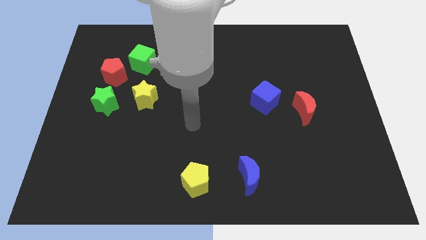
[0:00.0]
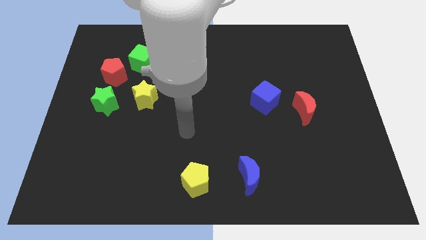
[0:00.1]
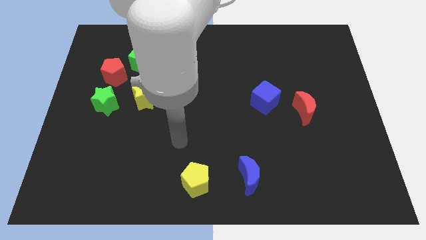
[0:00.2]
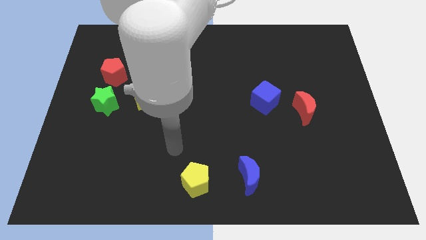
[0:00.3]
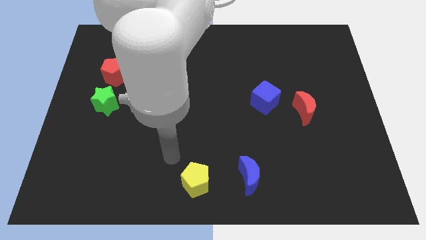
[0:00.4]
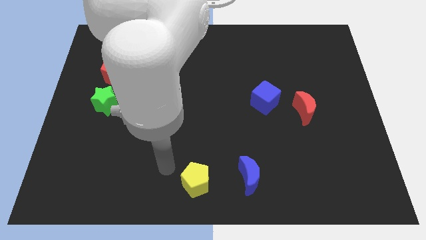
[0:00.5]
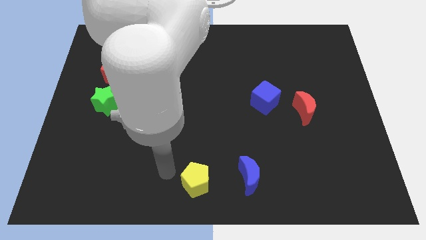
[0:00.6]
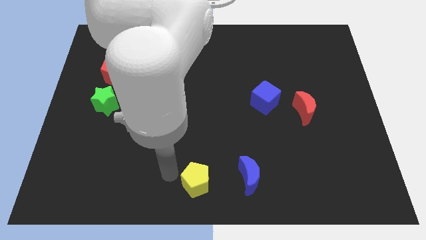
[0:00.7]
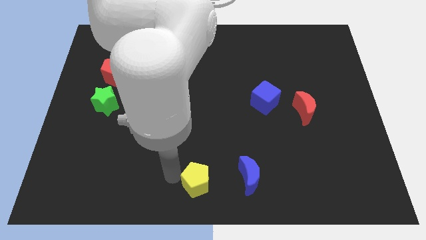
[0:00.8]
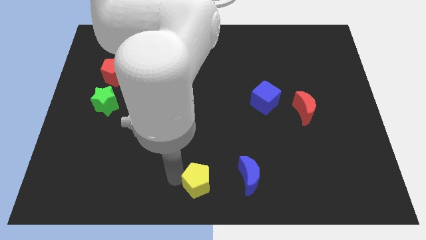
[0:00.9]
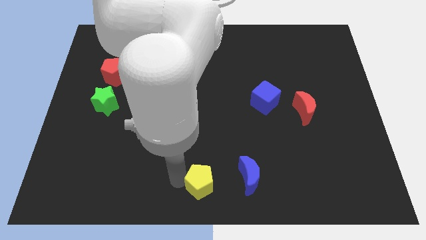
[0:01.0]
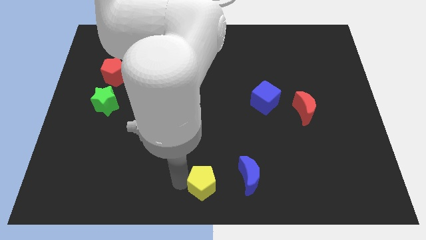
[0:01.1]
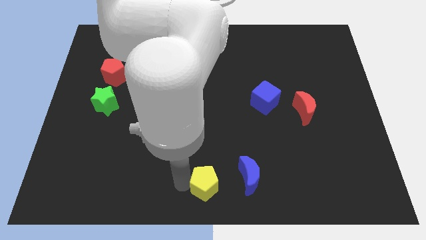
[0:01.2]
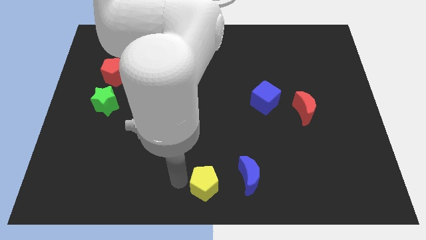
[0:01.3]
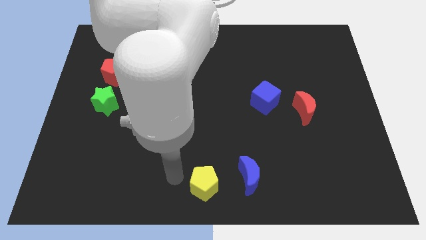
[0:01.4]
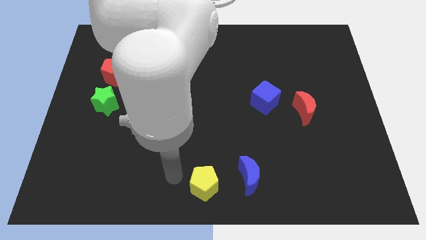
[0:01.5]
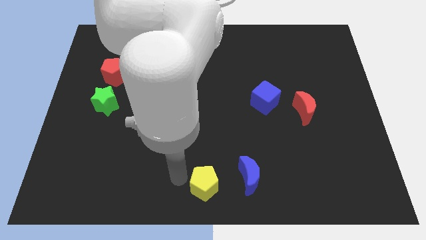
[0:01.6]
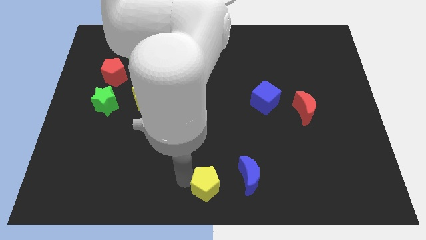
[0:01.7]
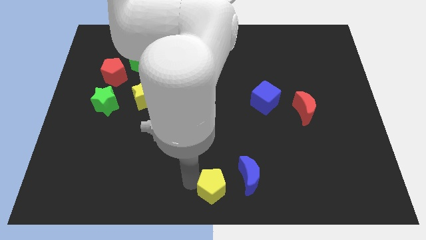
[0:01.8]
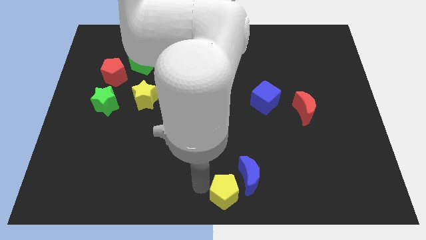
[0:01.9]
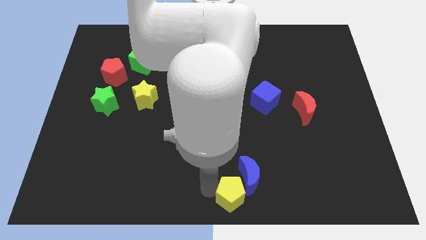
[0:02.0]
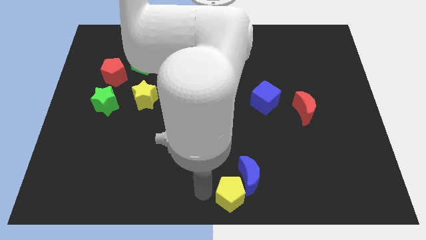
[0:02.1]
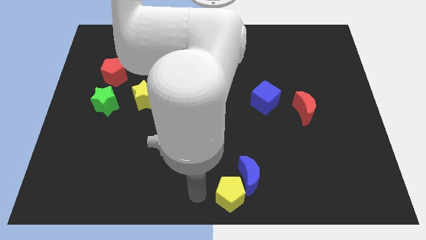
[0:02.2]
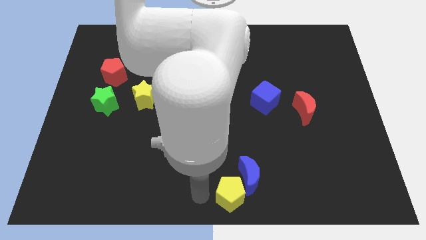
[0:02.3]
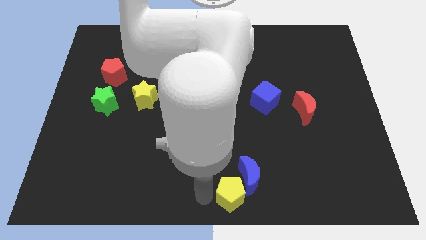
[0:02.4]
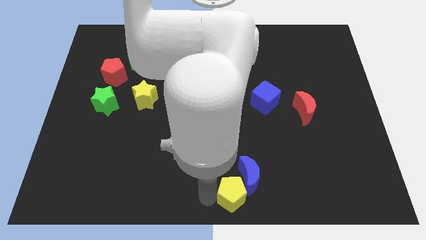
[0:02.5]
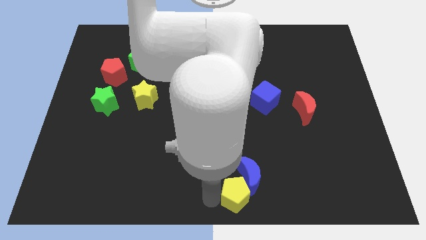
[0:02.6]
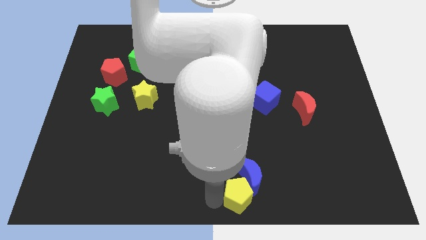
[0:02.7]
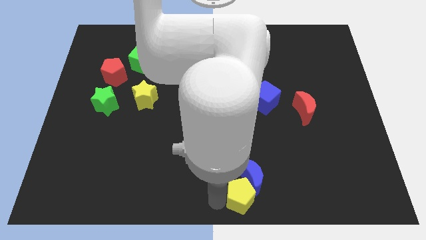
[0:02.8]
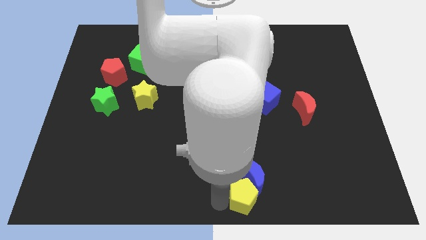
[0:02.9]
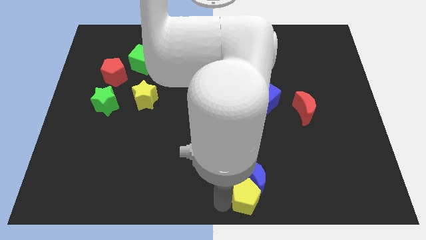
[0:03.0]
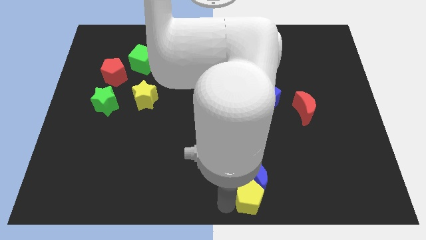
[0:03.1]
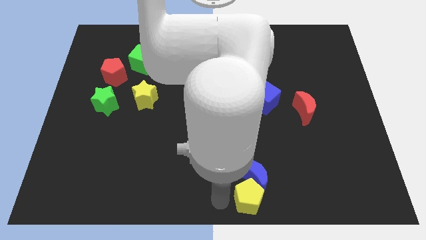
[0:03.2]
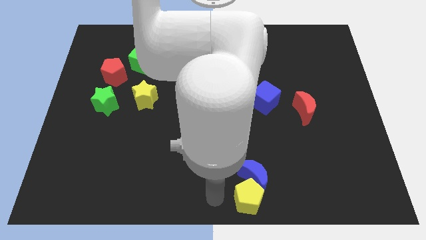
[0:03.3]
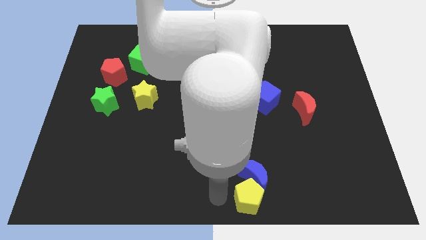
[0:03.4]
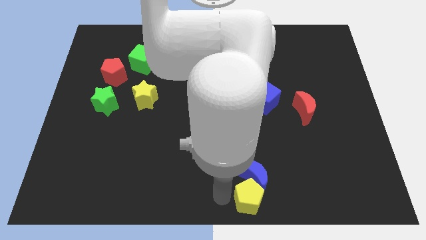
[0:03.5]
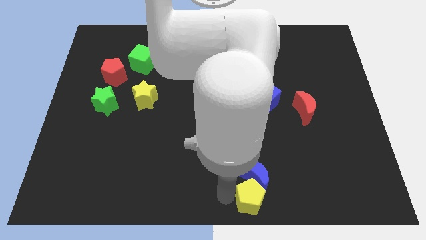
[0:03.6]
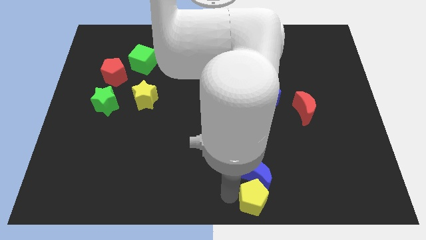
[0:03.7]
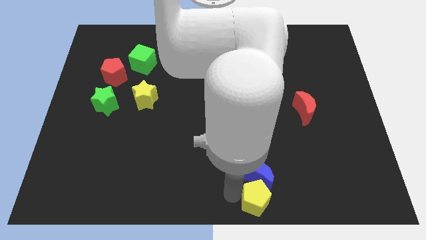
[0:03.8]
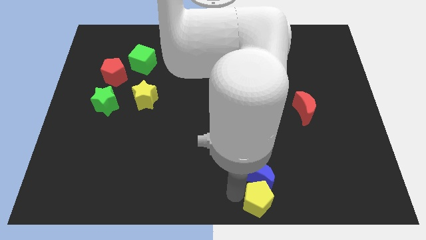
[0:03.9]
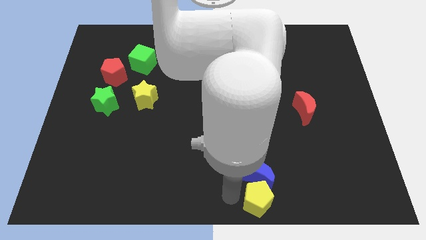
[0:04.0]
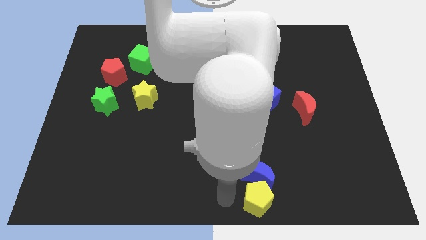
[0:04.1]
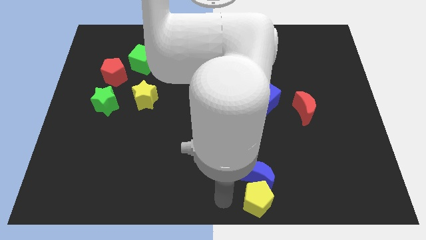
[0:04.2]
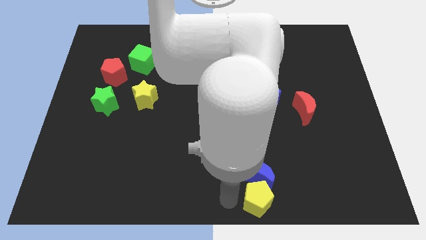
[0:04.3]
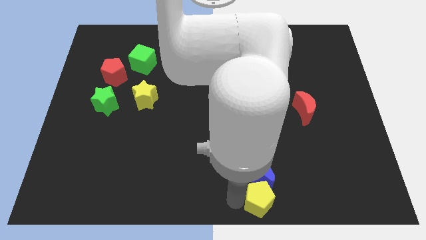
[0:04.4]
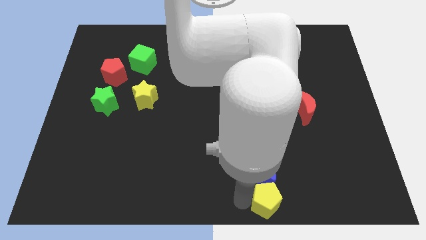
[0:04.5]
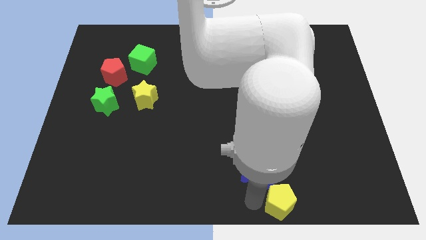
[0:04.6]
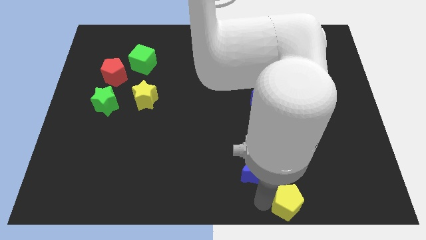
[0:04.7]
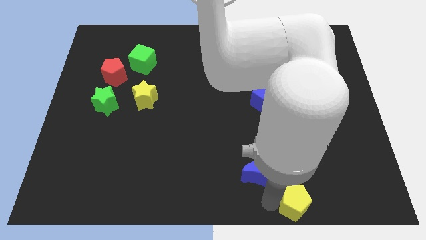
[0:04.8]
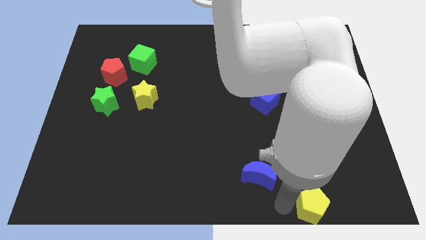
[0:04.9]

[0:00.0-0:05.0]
move the yellow pentagon right

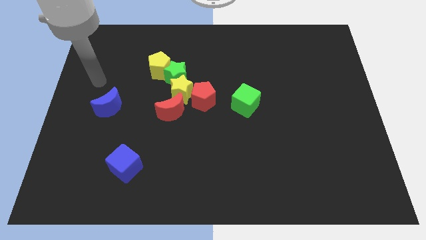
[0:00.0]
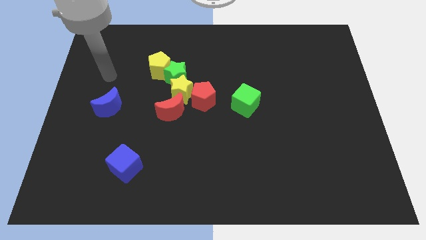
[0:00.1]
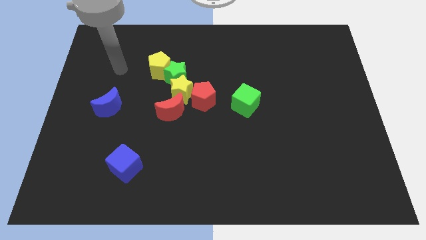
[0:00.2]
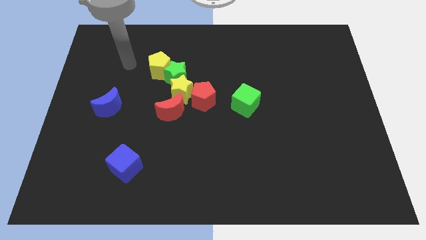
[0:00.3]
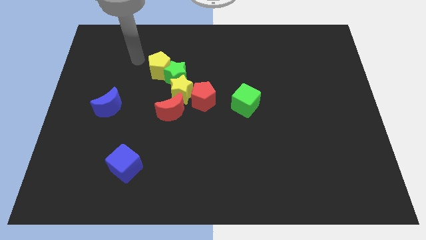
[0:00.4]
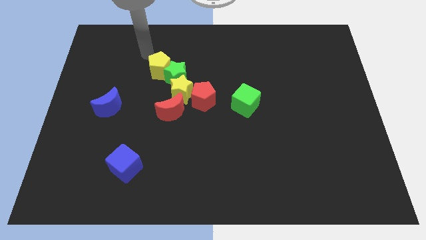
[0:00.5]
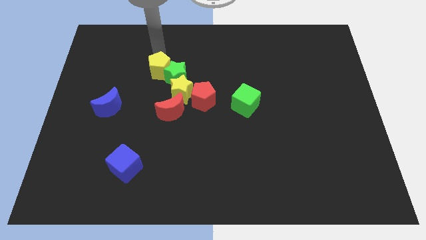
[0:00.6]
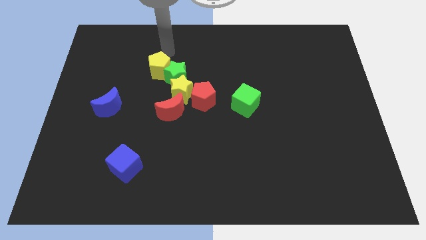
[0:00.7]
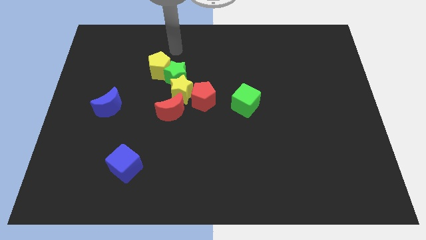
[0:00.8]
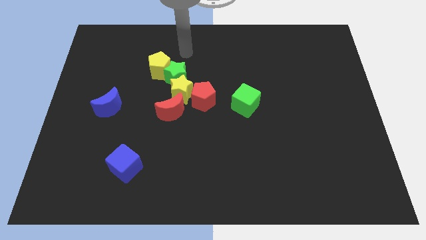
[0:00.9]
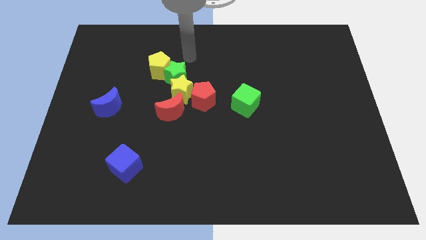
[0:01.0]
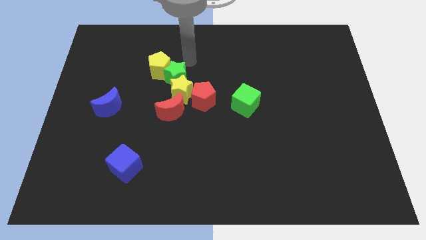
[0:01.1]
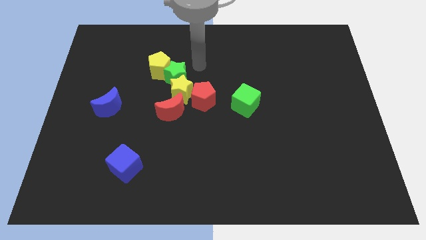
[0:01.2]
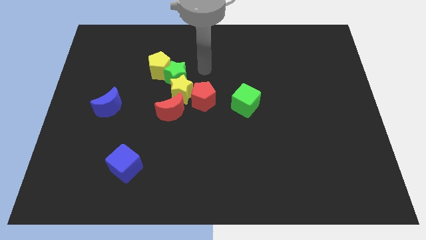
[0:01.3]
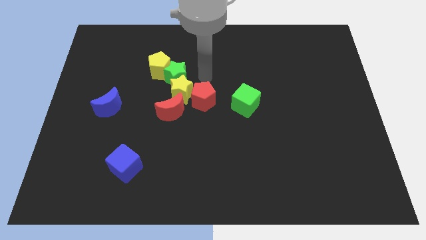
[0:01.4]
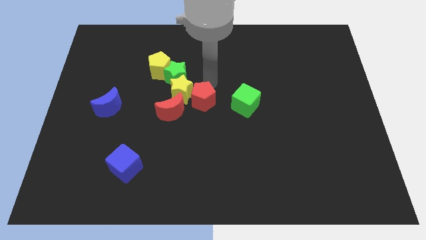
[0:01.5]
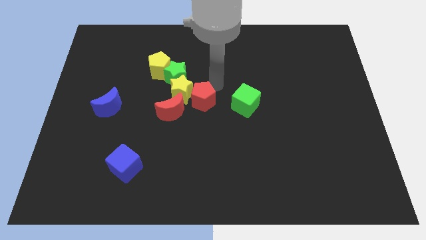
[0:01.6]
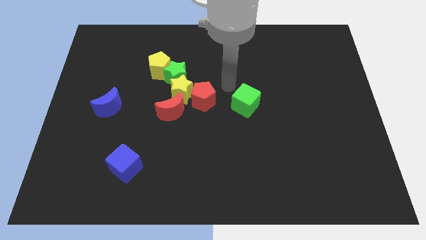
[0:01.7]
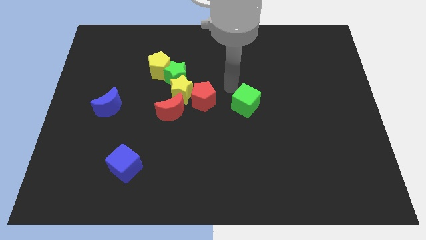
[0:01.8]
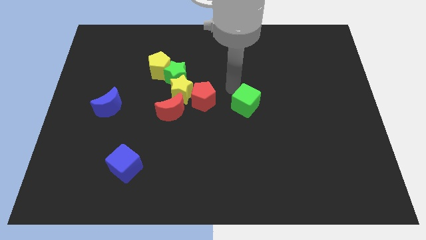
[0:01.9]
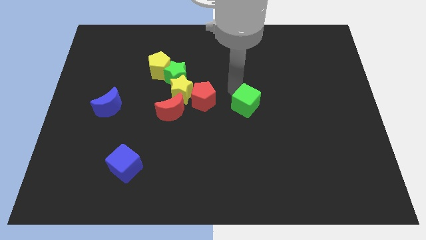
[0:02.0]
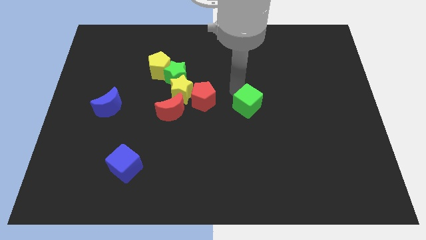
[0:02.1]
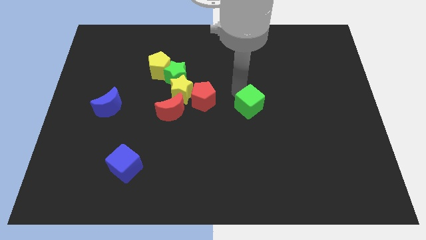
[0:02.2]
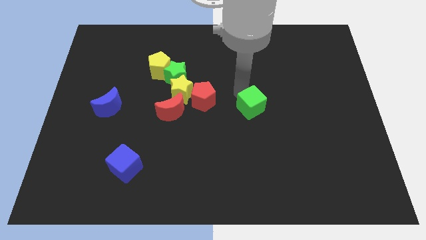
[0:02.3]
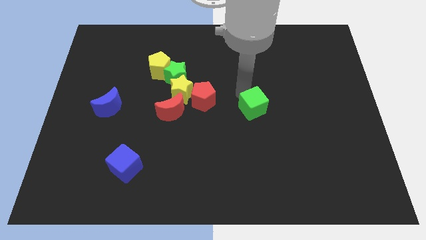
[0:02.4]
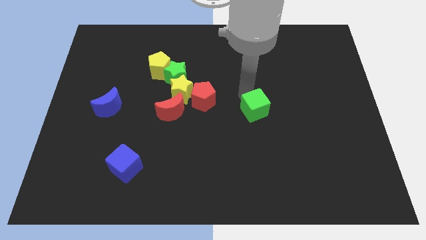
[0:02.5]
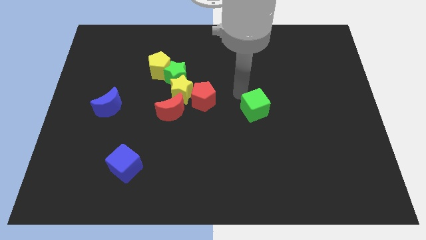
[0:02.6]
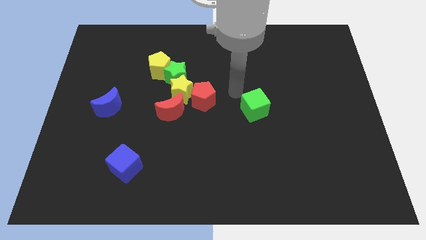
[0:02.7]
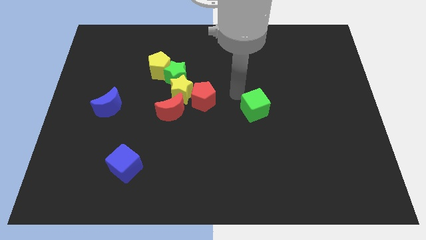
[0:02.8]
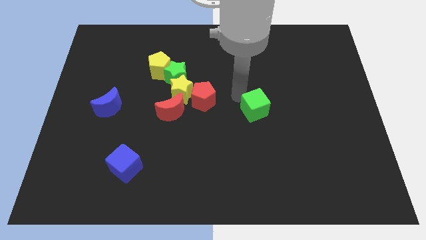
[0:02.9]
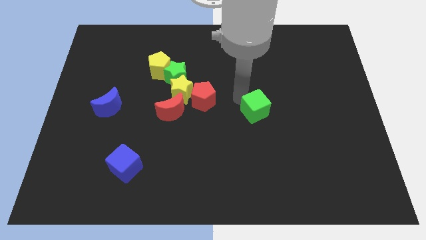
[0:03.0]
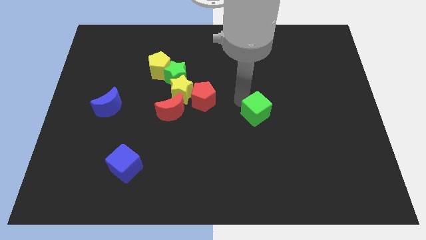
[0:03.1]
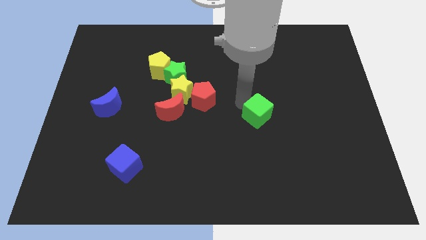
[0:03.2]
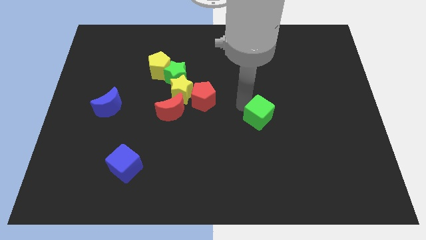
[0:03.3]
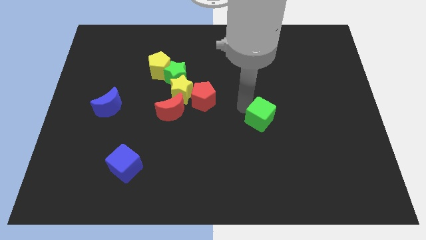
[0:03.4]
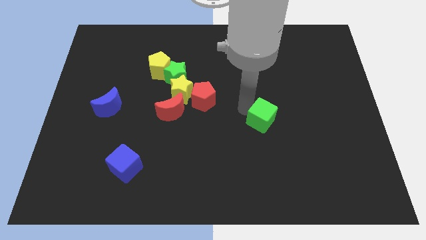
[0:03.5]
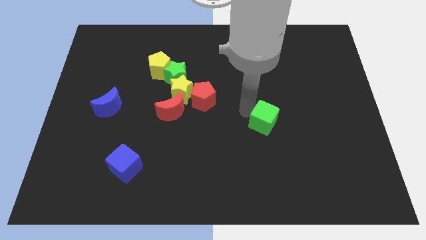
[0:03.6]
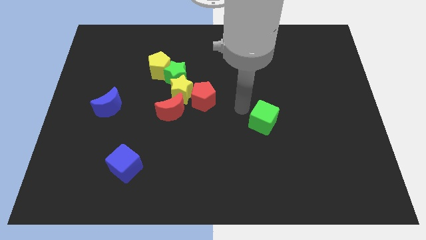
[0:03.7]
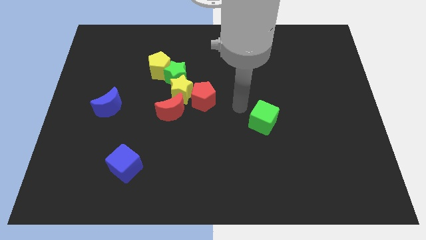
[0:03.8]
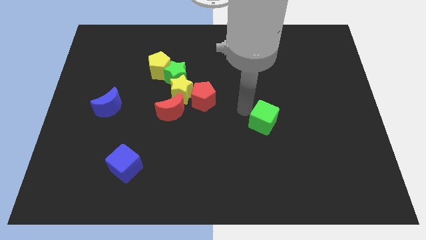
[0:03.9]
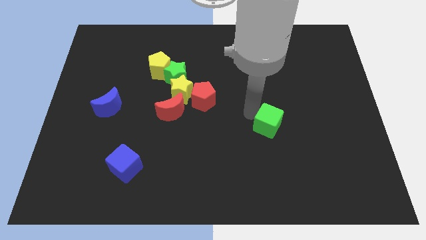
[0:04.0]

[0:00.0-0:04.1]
push the green cube down and to the right a little bit
